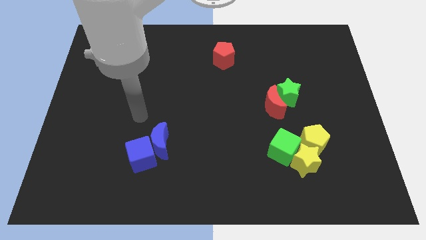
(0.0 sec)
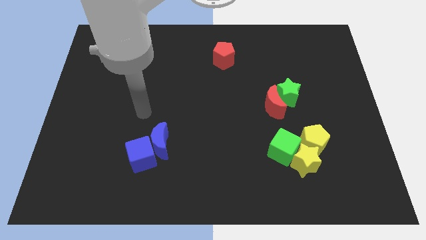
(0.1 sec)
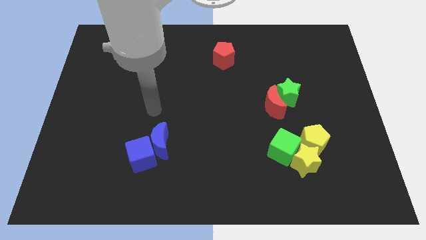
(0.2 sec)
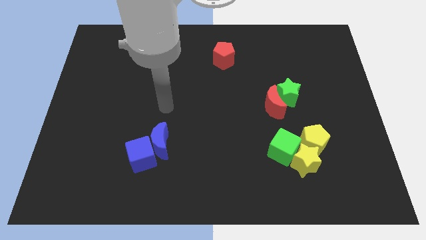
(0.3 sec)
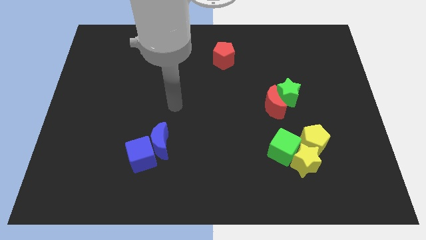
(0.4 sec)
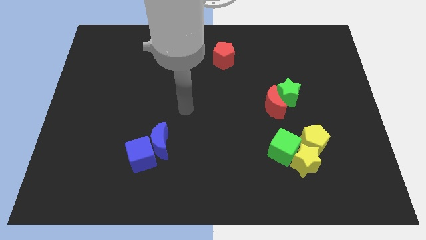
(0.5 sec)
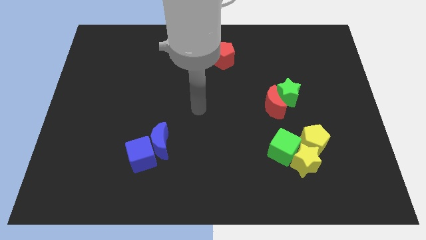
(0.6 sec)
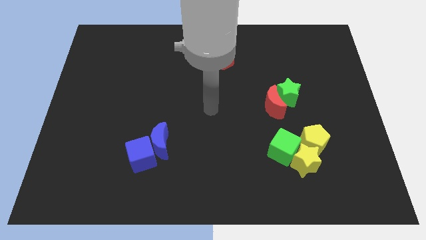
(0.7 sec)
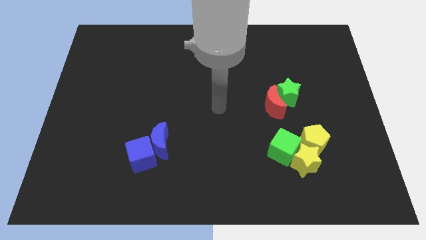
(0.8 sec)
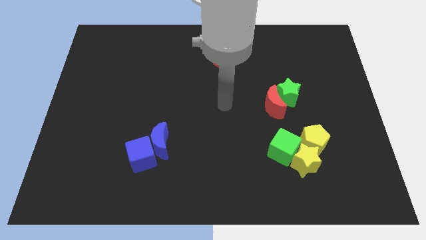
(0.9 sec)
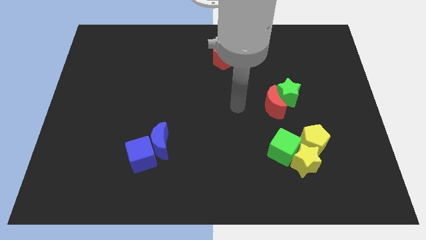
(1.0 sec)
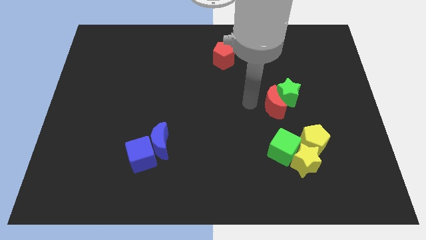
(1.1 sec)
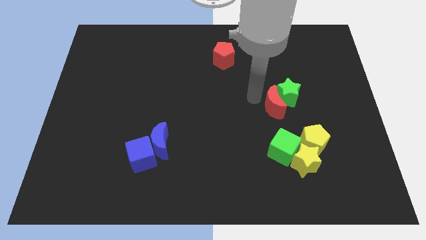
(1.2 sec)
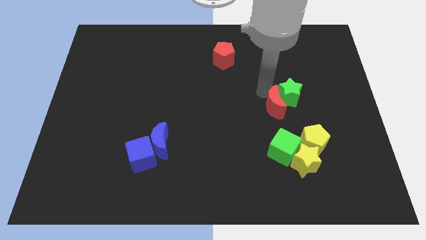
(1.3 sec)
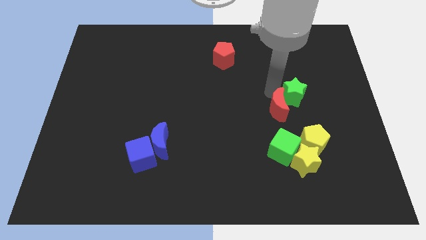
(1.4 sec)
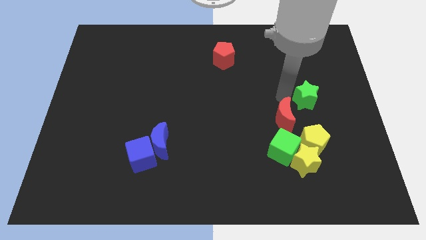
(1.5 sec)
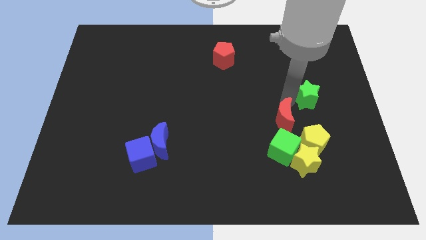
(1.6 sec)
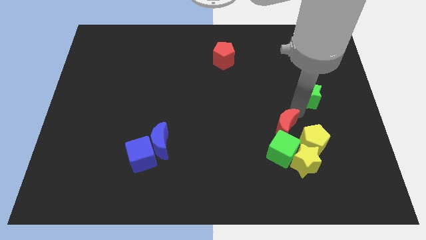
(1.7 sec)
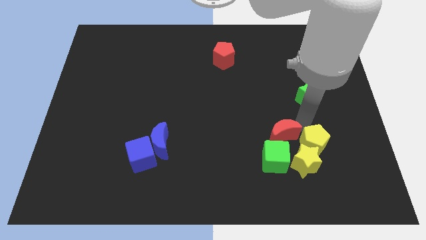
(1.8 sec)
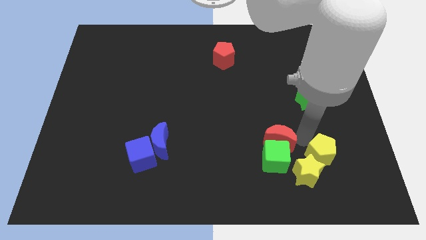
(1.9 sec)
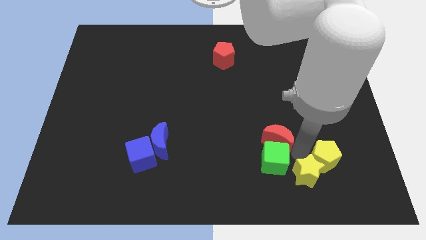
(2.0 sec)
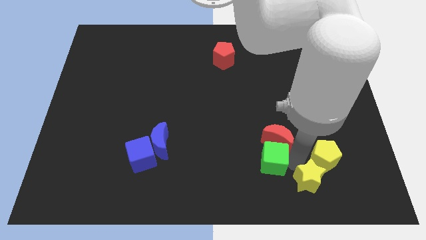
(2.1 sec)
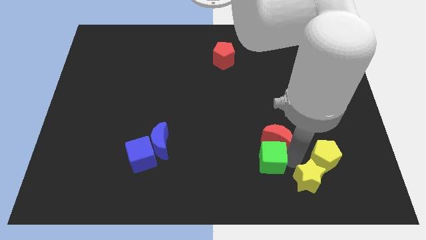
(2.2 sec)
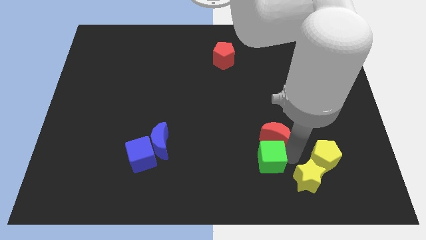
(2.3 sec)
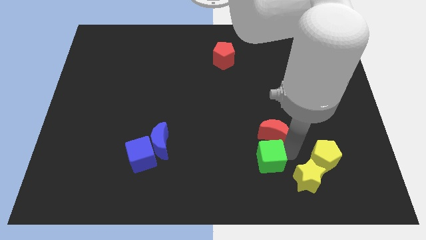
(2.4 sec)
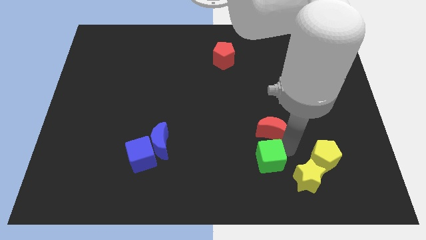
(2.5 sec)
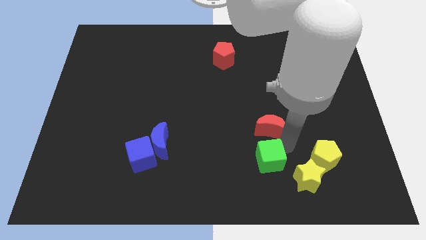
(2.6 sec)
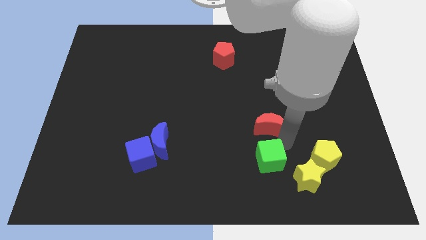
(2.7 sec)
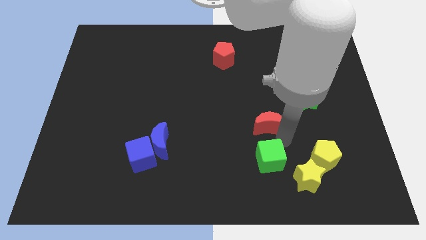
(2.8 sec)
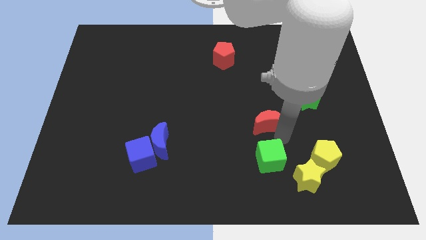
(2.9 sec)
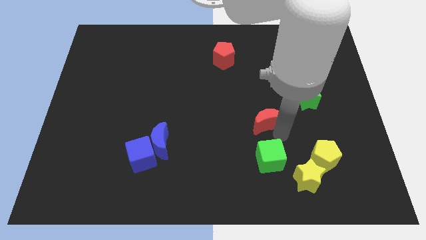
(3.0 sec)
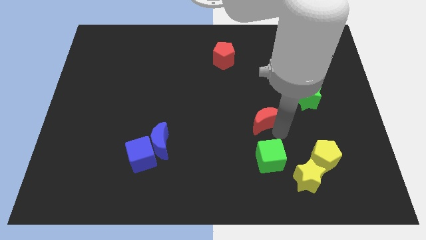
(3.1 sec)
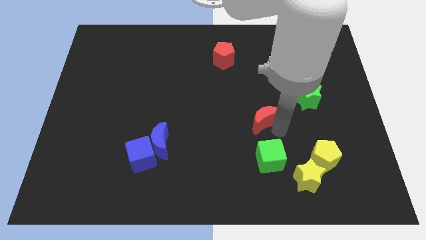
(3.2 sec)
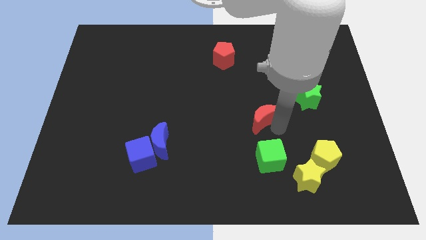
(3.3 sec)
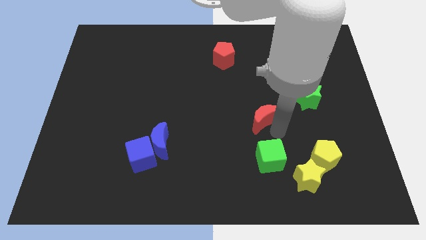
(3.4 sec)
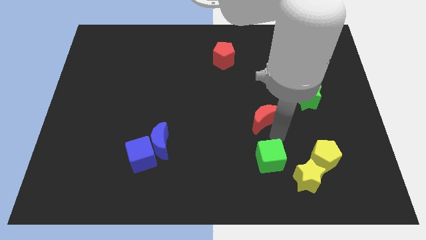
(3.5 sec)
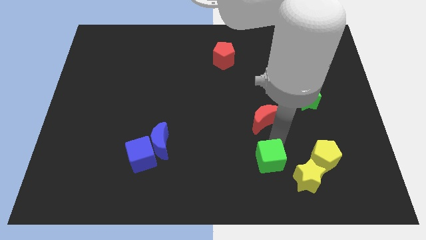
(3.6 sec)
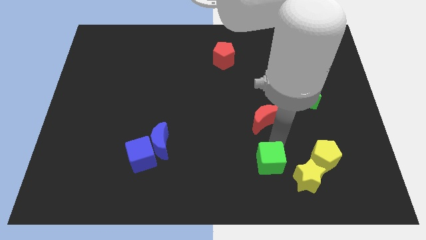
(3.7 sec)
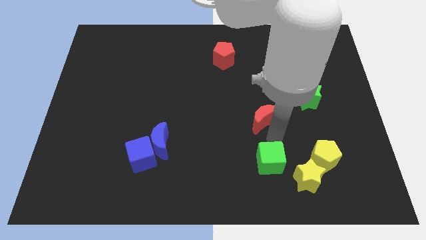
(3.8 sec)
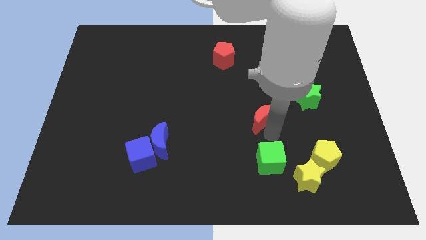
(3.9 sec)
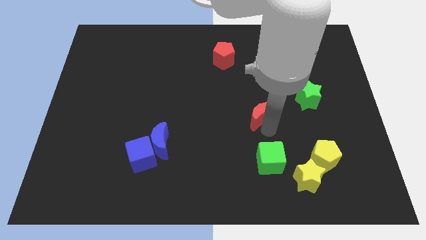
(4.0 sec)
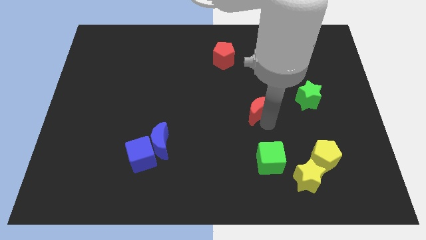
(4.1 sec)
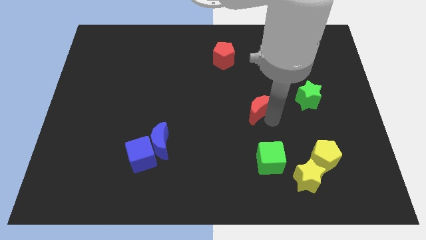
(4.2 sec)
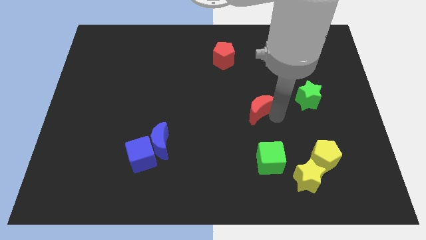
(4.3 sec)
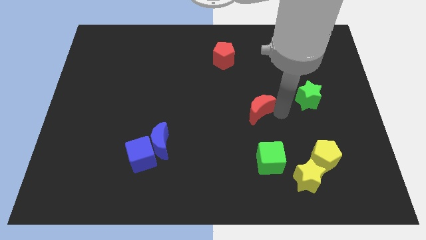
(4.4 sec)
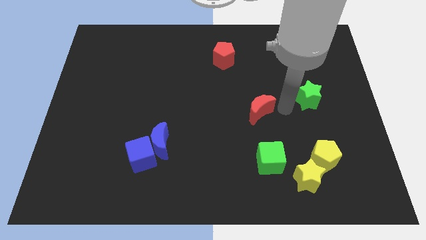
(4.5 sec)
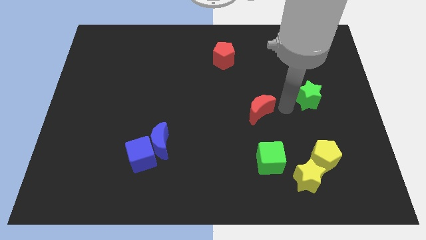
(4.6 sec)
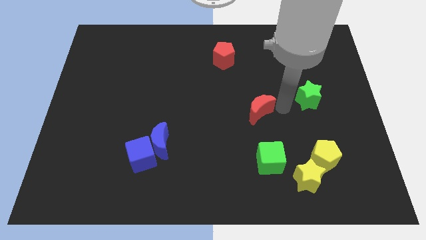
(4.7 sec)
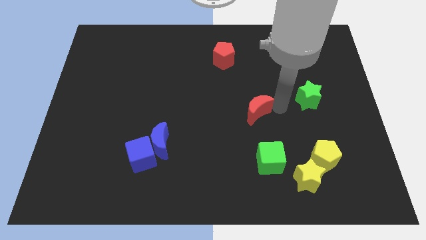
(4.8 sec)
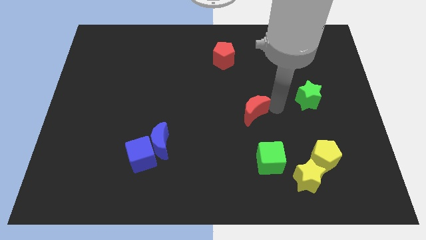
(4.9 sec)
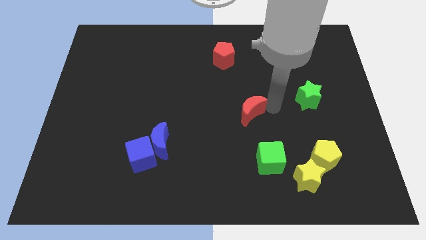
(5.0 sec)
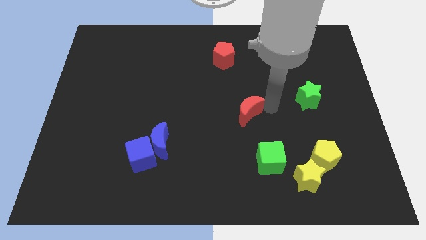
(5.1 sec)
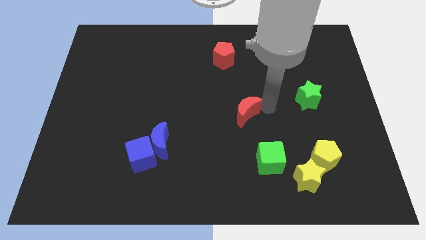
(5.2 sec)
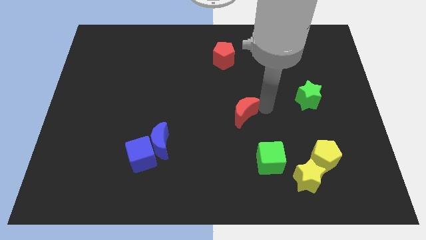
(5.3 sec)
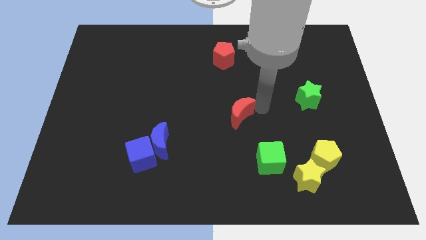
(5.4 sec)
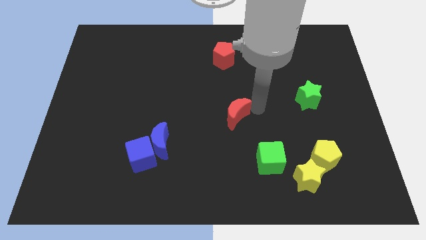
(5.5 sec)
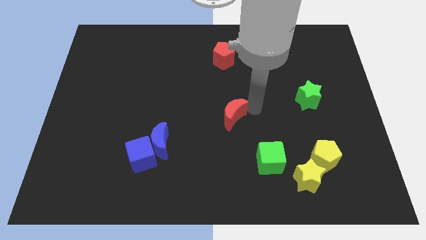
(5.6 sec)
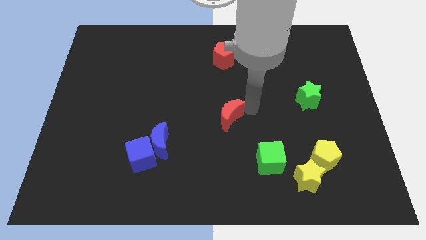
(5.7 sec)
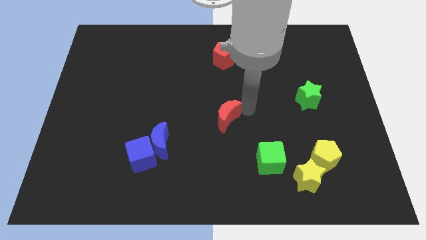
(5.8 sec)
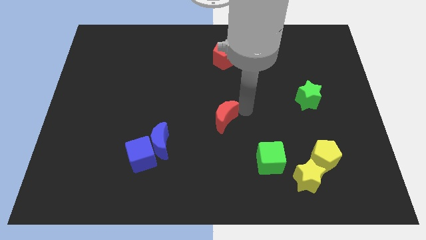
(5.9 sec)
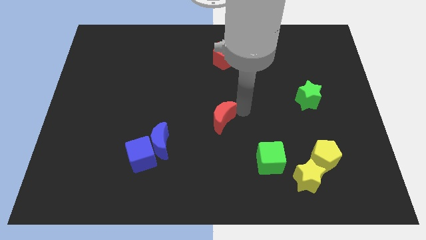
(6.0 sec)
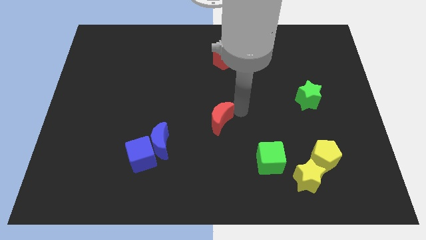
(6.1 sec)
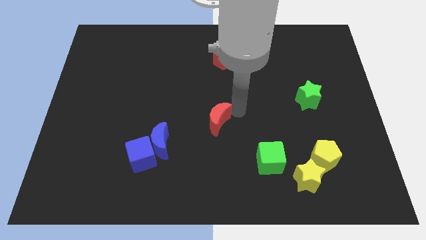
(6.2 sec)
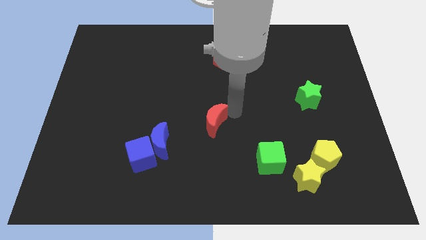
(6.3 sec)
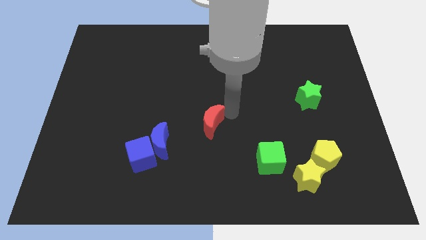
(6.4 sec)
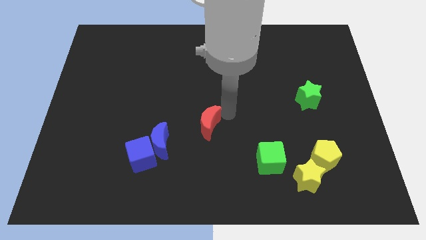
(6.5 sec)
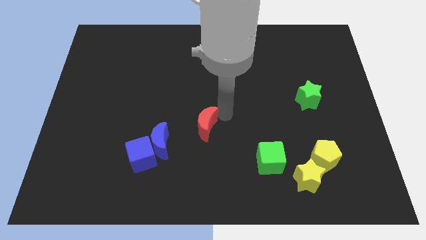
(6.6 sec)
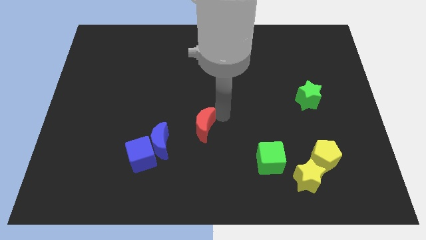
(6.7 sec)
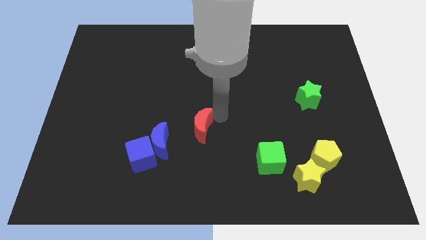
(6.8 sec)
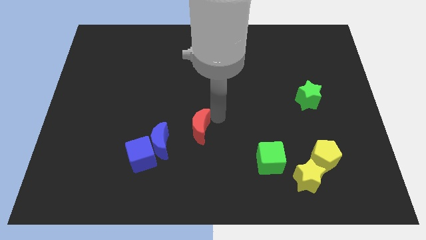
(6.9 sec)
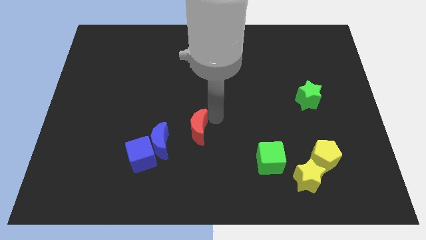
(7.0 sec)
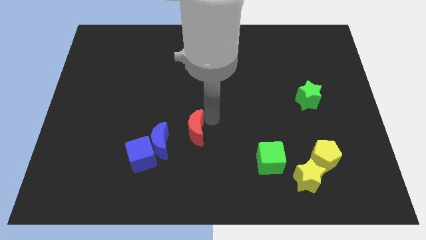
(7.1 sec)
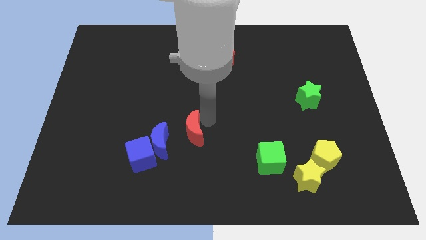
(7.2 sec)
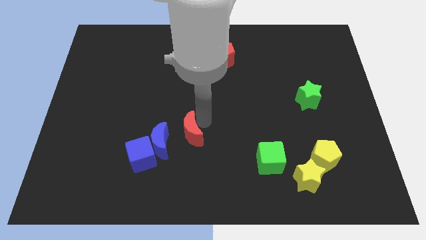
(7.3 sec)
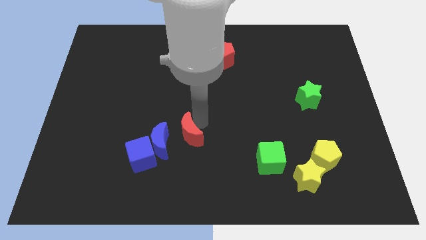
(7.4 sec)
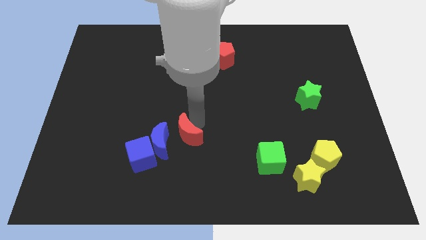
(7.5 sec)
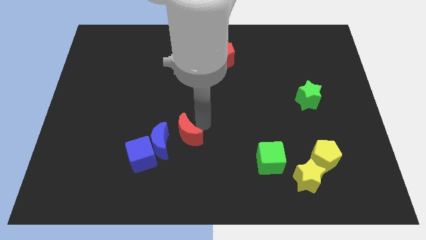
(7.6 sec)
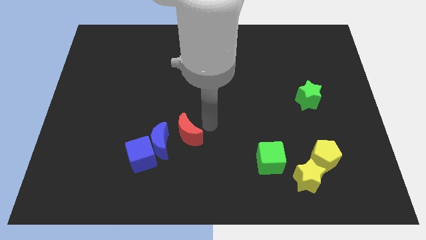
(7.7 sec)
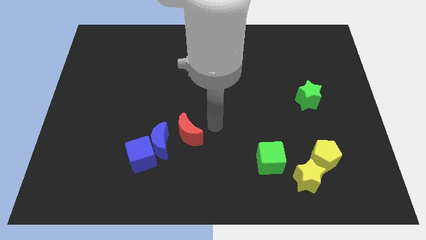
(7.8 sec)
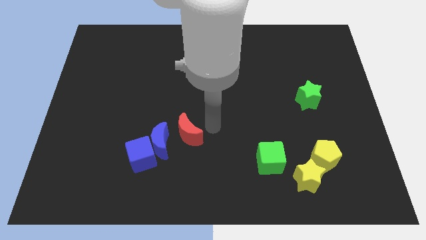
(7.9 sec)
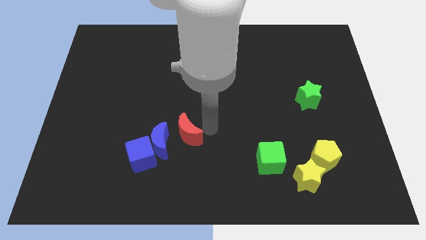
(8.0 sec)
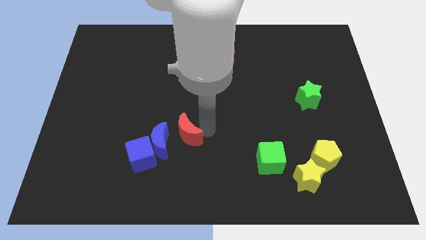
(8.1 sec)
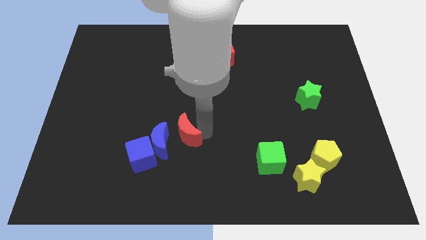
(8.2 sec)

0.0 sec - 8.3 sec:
put the red moon towards the blue moon
